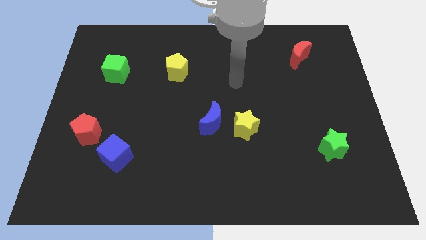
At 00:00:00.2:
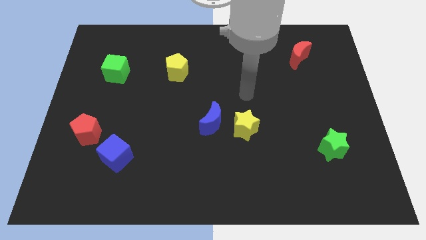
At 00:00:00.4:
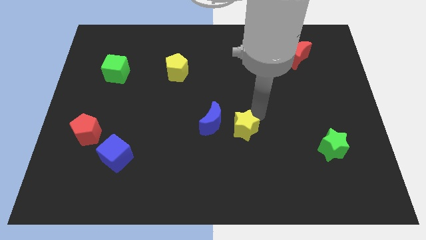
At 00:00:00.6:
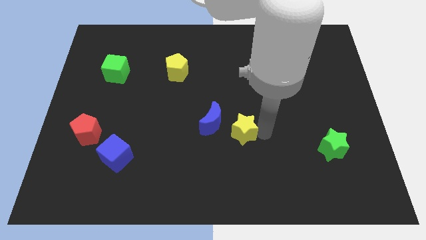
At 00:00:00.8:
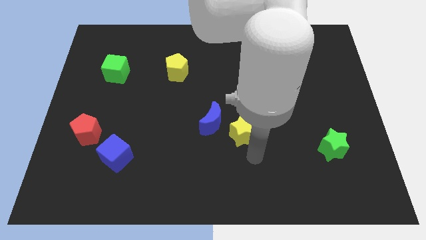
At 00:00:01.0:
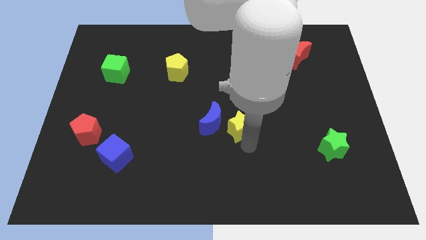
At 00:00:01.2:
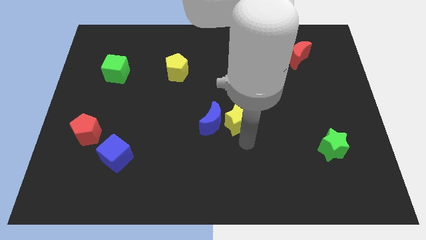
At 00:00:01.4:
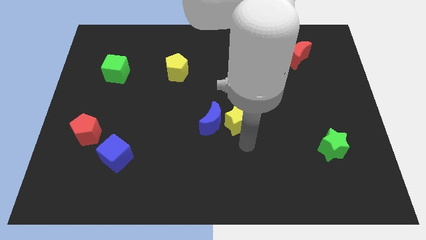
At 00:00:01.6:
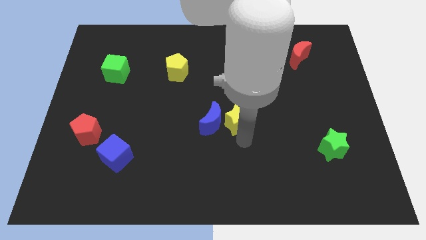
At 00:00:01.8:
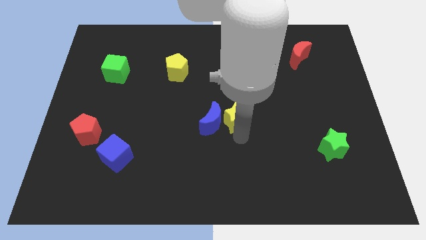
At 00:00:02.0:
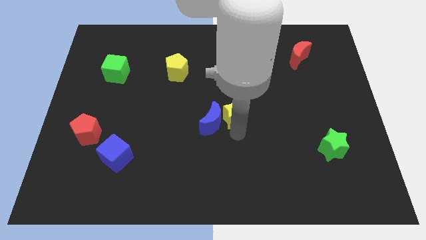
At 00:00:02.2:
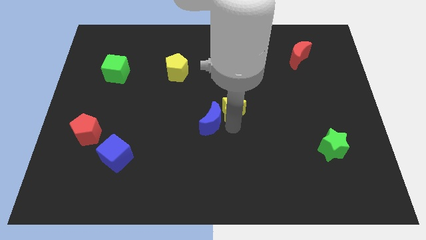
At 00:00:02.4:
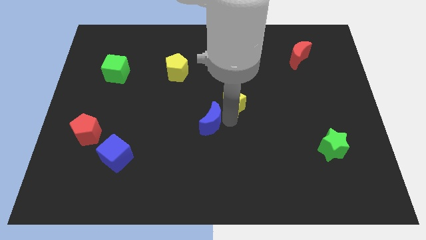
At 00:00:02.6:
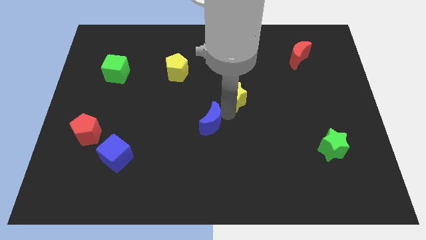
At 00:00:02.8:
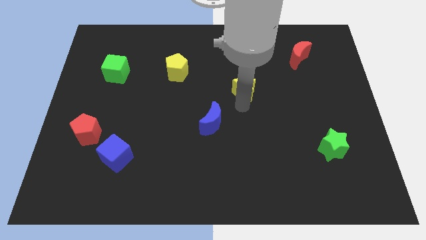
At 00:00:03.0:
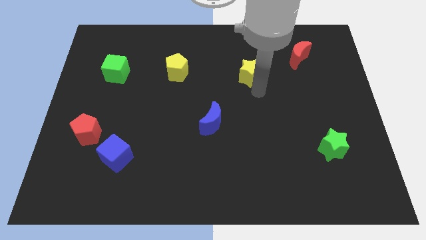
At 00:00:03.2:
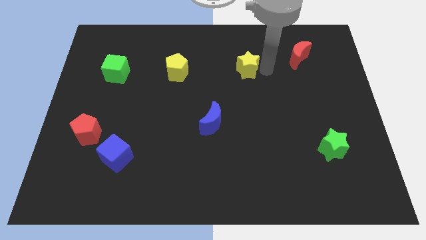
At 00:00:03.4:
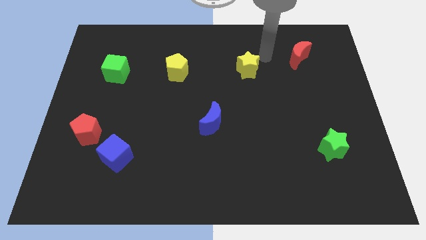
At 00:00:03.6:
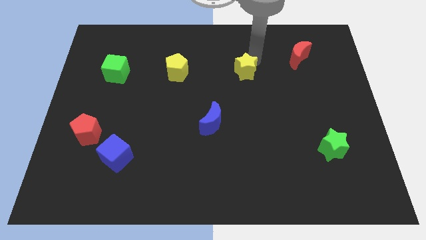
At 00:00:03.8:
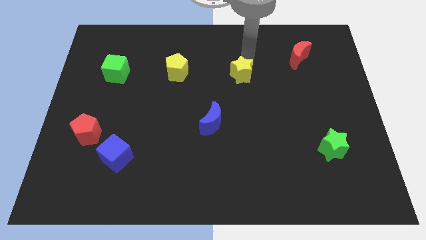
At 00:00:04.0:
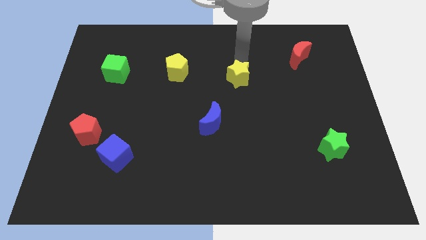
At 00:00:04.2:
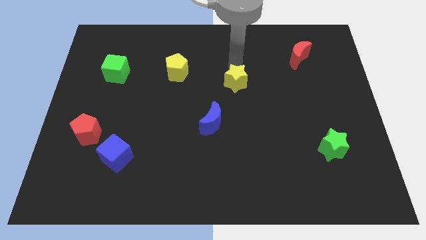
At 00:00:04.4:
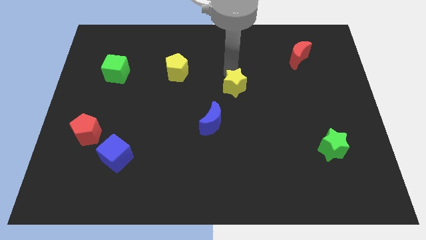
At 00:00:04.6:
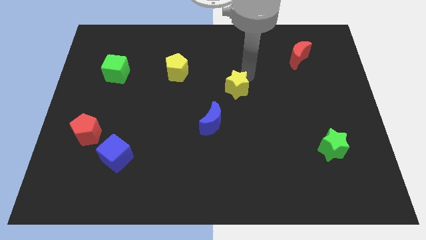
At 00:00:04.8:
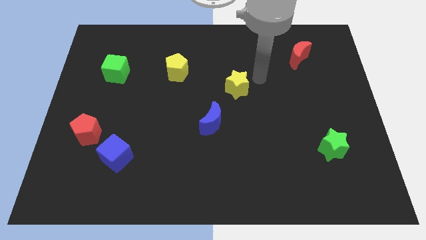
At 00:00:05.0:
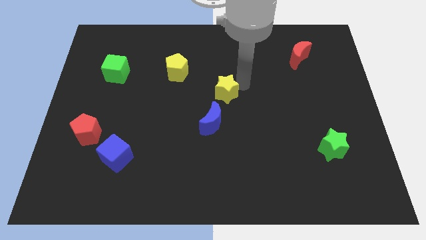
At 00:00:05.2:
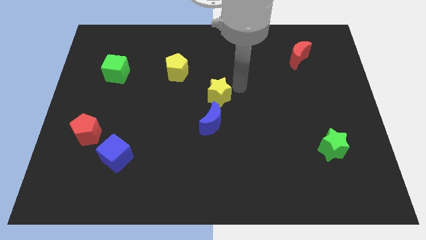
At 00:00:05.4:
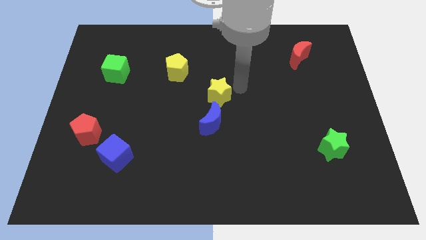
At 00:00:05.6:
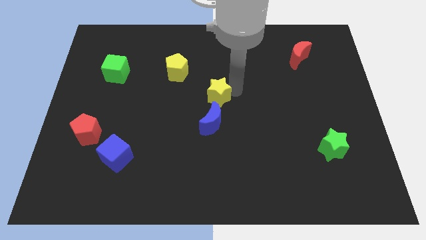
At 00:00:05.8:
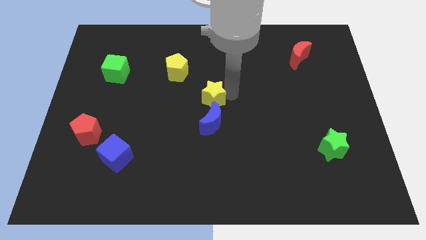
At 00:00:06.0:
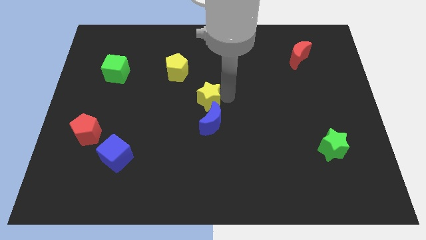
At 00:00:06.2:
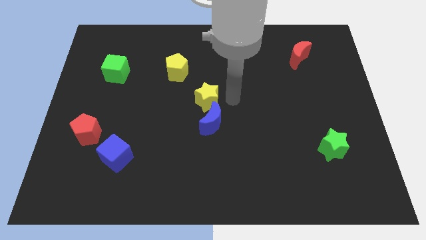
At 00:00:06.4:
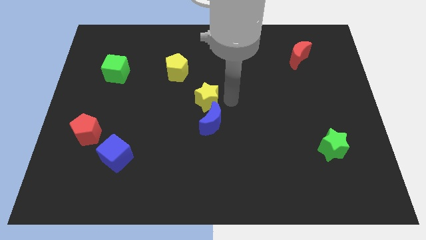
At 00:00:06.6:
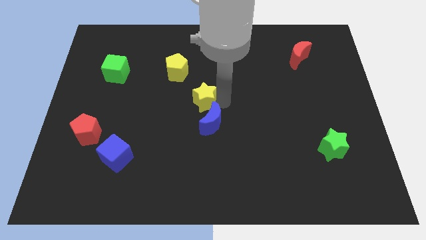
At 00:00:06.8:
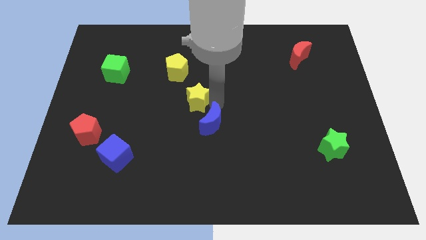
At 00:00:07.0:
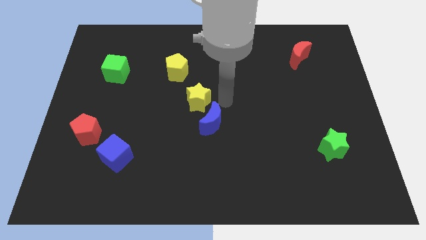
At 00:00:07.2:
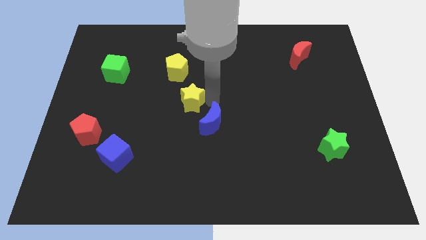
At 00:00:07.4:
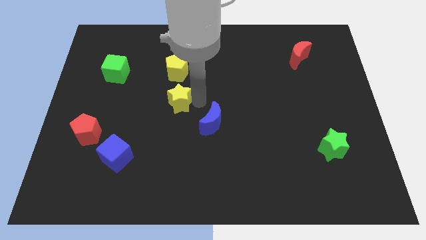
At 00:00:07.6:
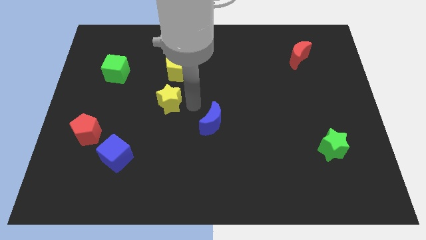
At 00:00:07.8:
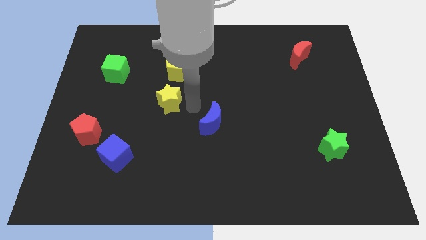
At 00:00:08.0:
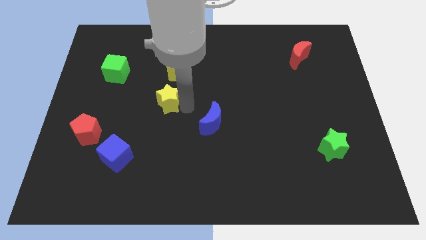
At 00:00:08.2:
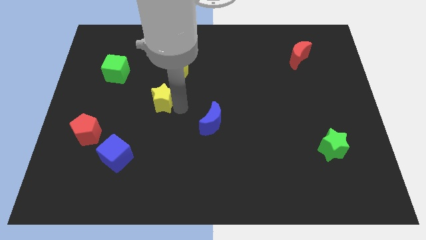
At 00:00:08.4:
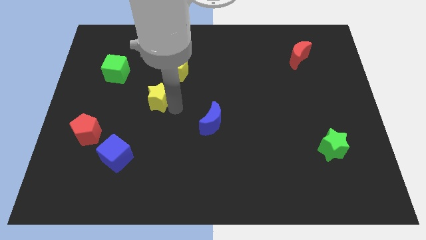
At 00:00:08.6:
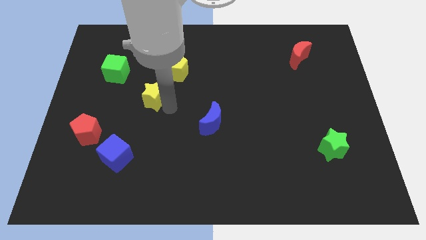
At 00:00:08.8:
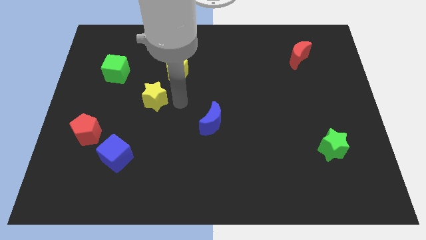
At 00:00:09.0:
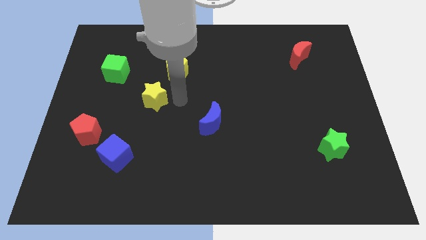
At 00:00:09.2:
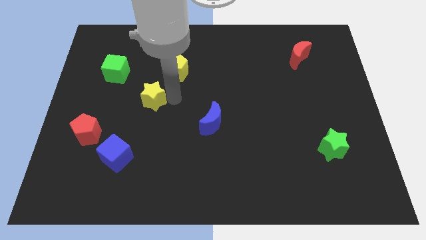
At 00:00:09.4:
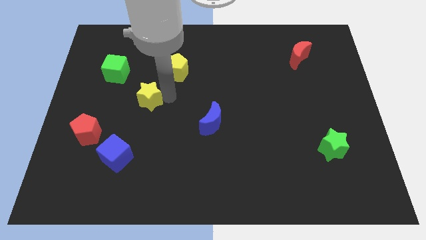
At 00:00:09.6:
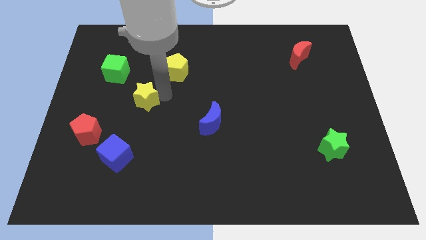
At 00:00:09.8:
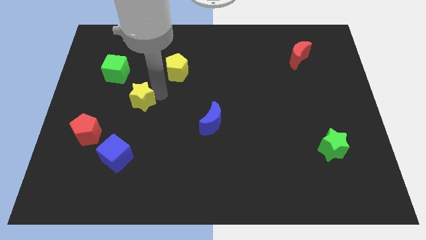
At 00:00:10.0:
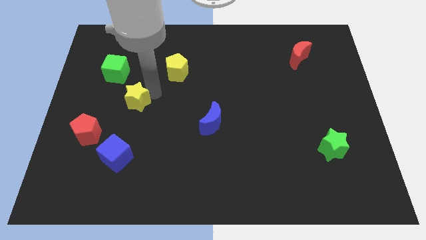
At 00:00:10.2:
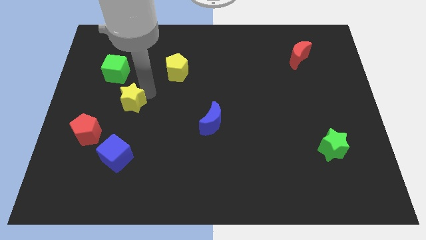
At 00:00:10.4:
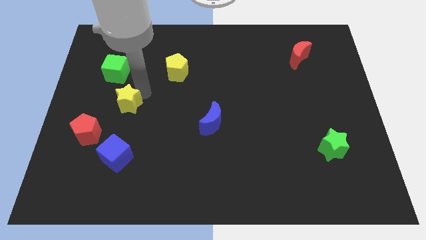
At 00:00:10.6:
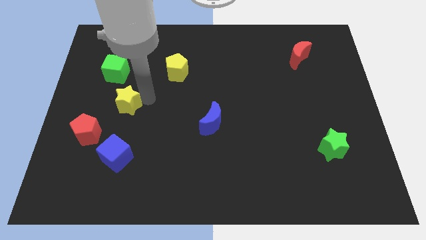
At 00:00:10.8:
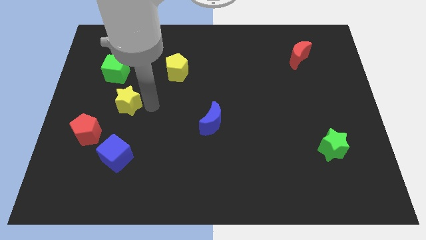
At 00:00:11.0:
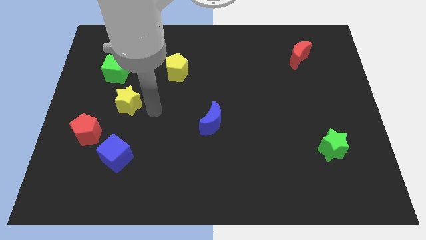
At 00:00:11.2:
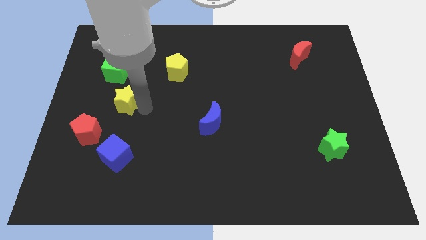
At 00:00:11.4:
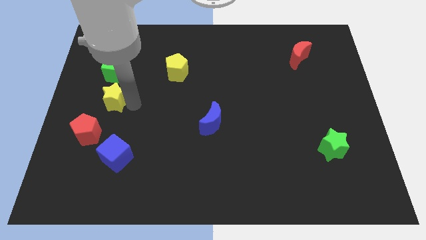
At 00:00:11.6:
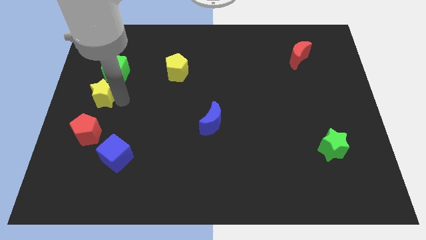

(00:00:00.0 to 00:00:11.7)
move the yellow star to the left side of the board
